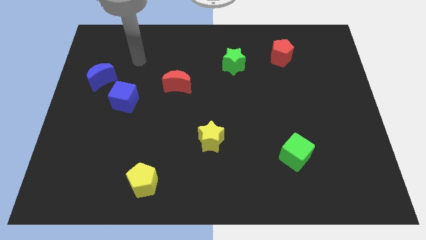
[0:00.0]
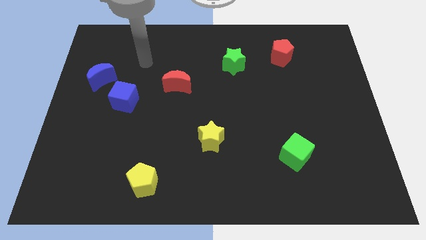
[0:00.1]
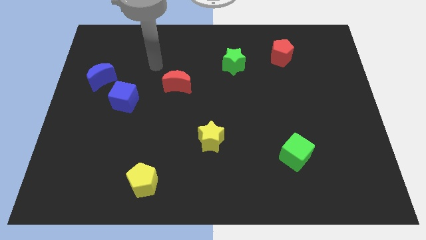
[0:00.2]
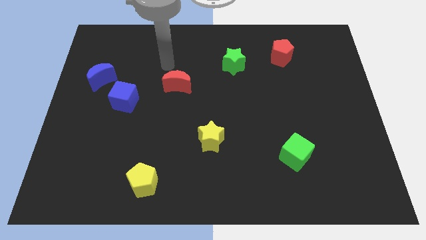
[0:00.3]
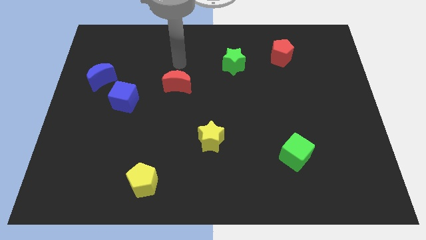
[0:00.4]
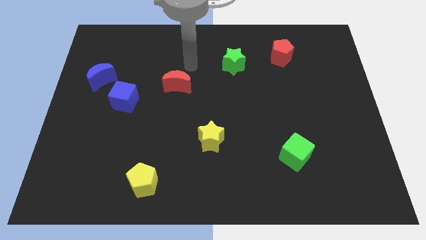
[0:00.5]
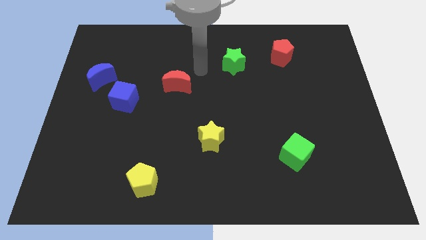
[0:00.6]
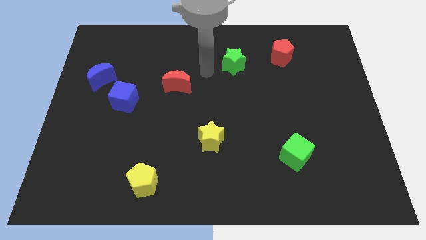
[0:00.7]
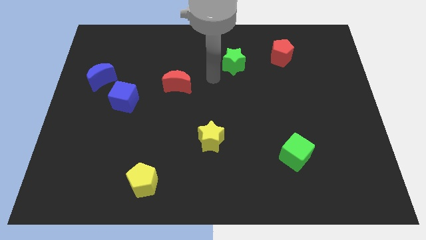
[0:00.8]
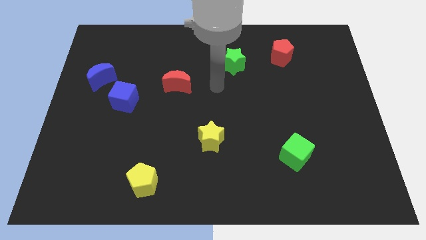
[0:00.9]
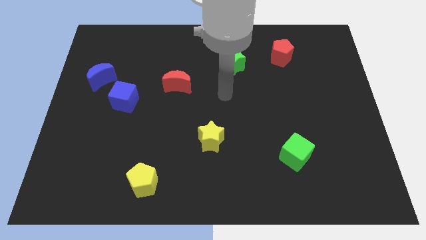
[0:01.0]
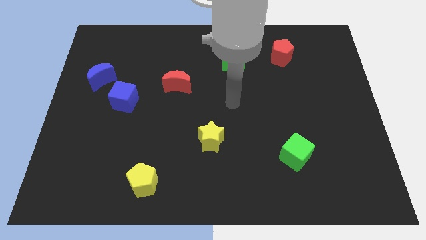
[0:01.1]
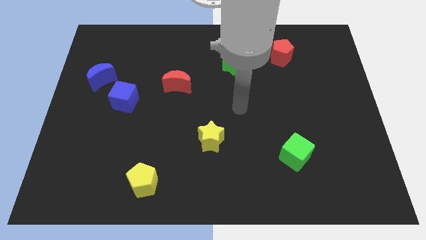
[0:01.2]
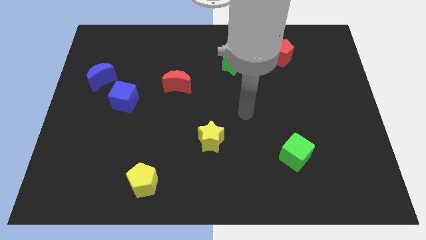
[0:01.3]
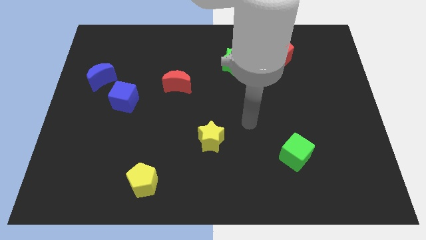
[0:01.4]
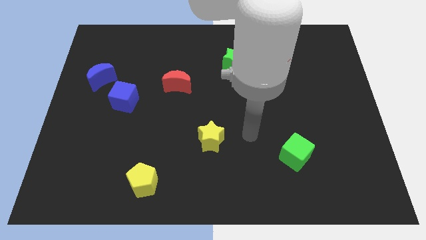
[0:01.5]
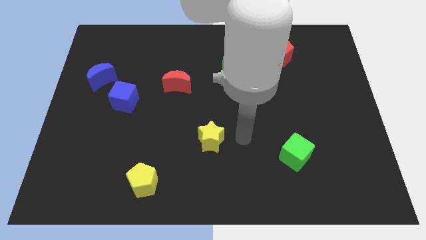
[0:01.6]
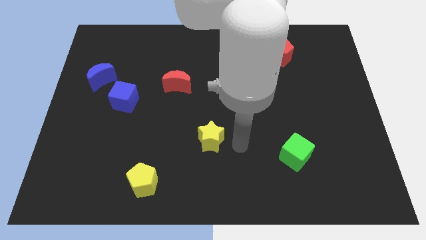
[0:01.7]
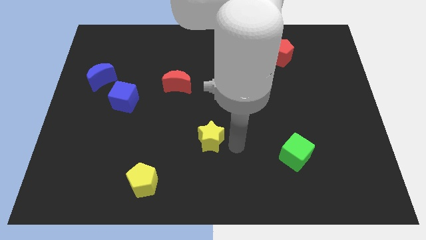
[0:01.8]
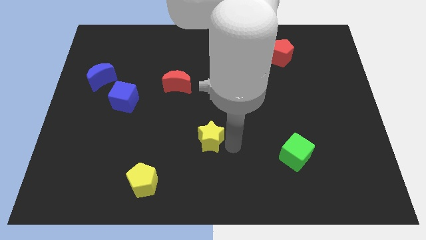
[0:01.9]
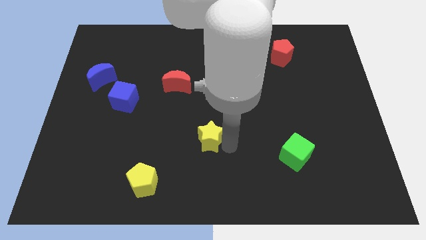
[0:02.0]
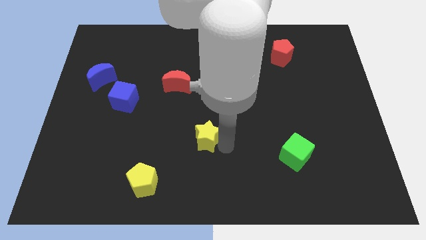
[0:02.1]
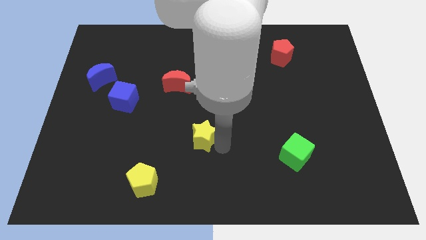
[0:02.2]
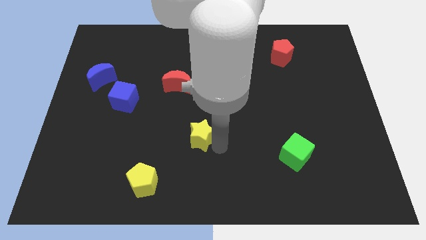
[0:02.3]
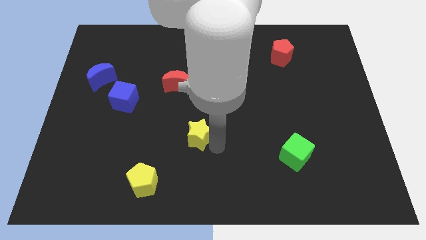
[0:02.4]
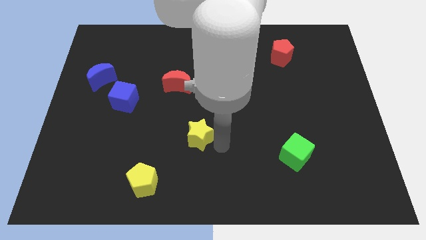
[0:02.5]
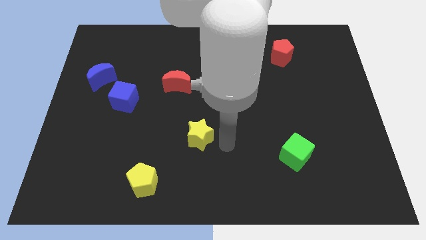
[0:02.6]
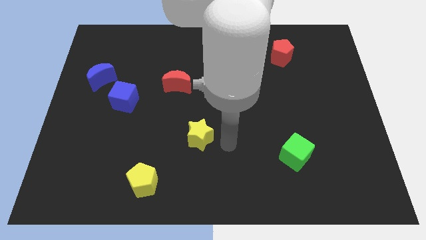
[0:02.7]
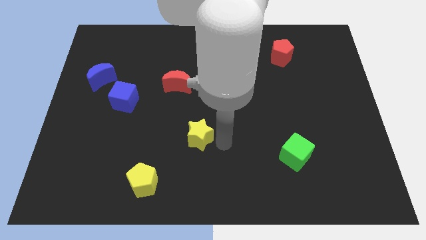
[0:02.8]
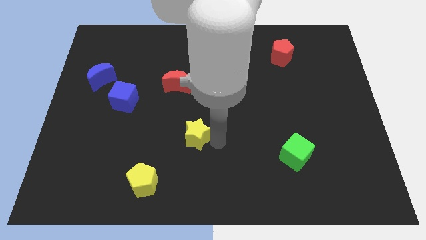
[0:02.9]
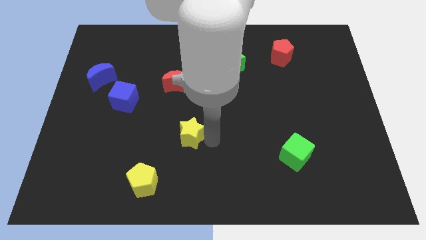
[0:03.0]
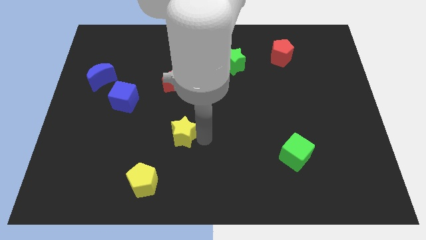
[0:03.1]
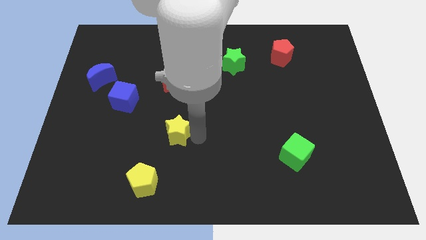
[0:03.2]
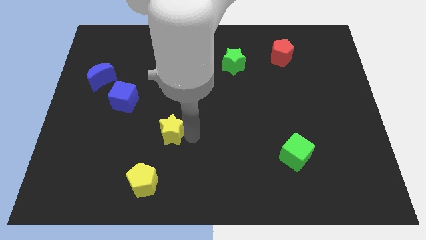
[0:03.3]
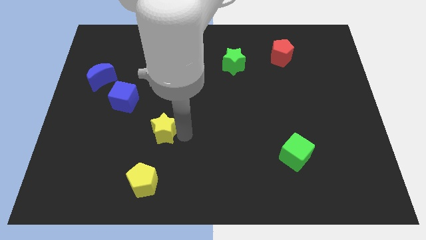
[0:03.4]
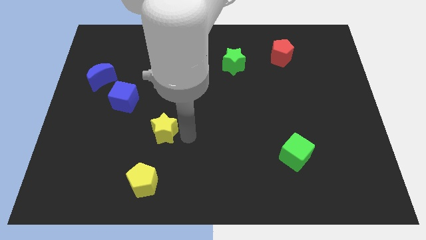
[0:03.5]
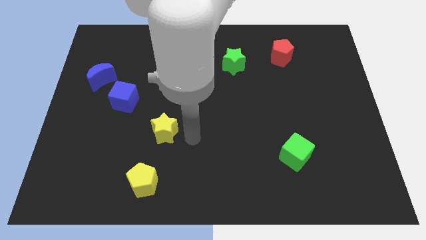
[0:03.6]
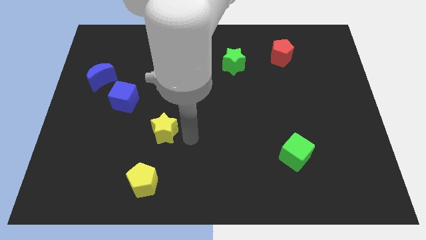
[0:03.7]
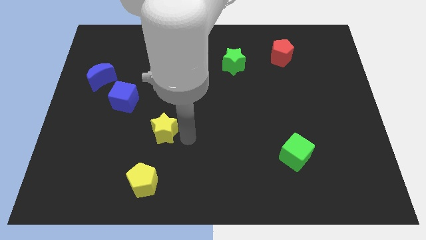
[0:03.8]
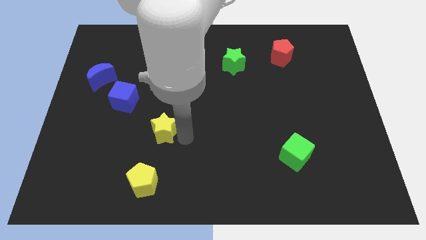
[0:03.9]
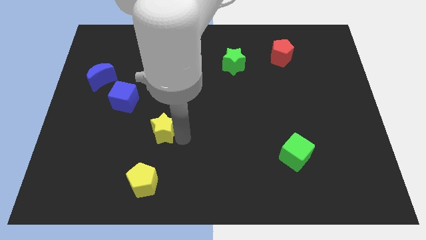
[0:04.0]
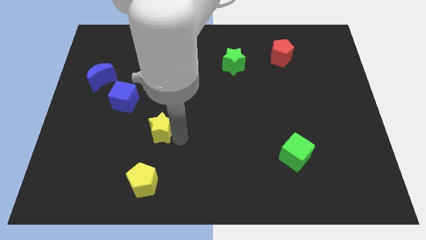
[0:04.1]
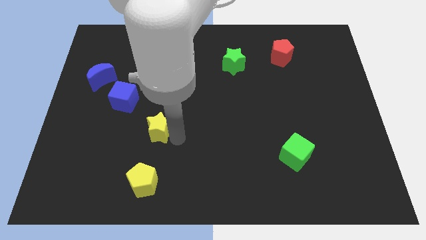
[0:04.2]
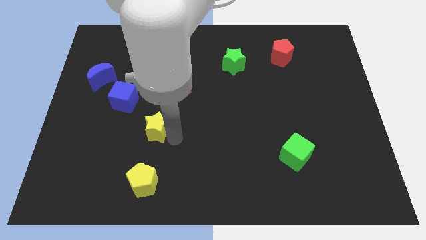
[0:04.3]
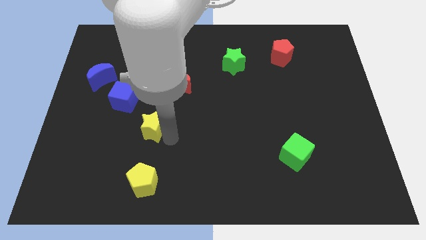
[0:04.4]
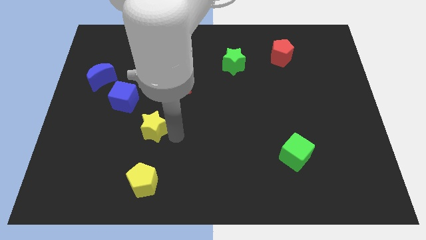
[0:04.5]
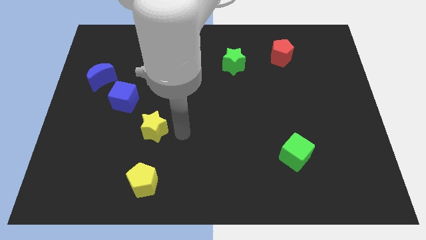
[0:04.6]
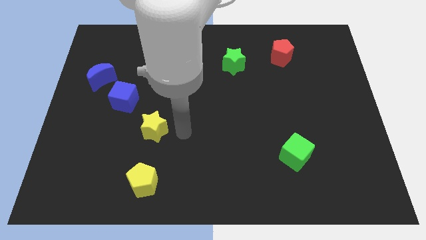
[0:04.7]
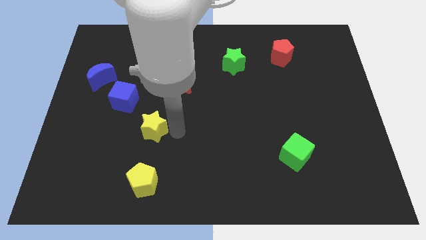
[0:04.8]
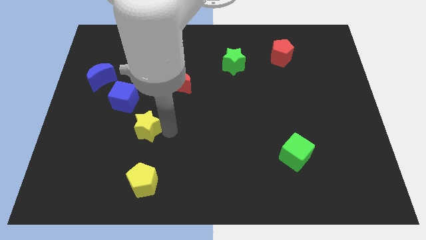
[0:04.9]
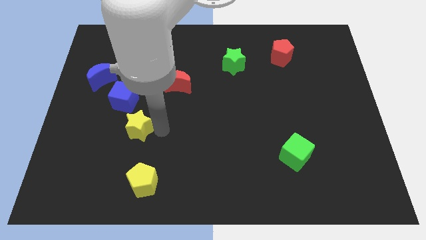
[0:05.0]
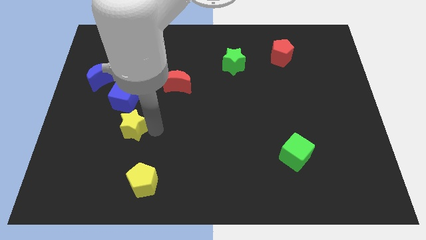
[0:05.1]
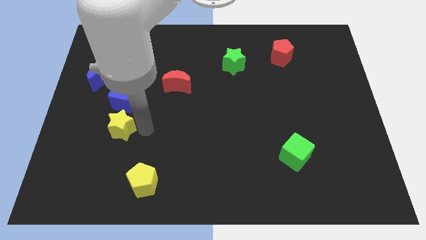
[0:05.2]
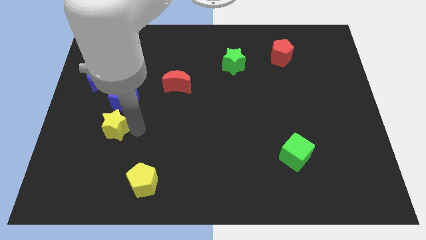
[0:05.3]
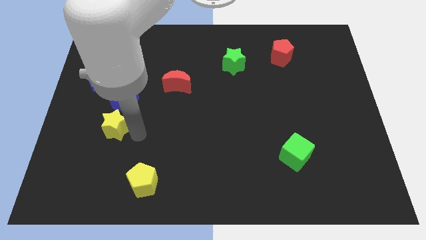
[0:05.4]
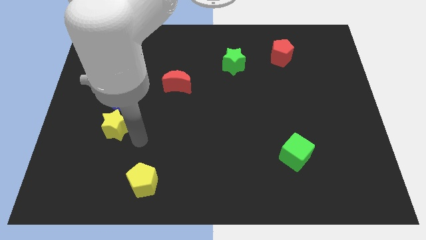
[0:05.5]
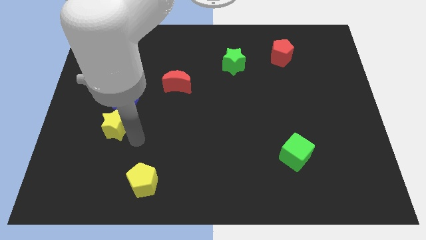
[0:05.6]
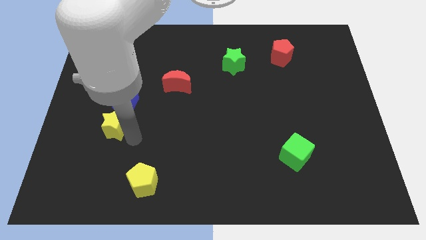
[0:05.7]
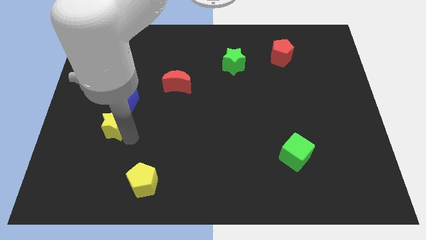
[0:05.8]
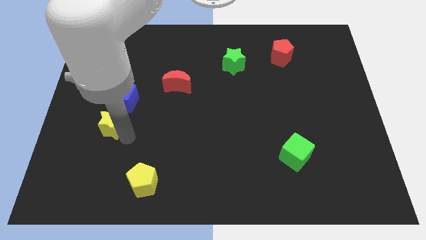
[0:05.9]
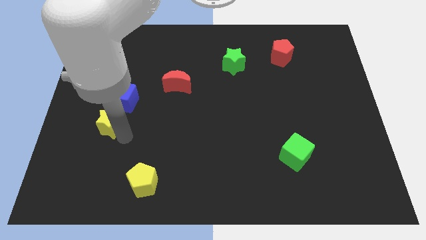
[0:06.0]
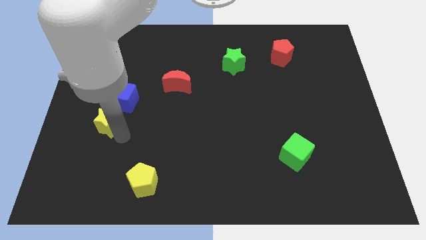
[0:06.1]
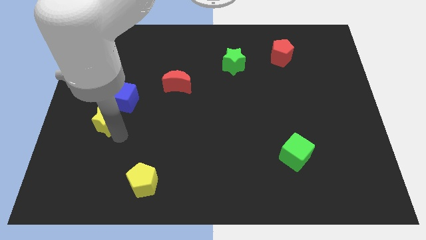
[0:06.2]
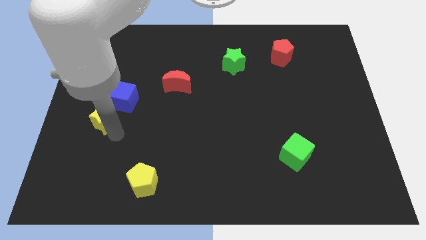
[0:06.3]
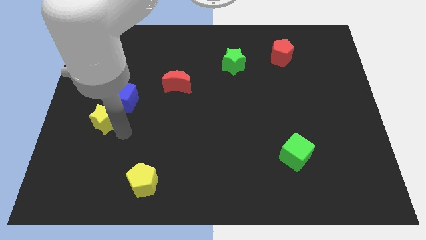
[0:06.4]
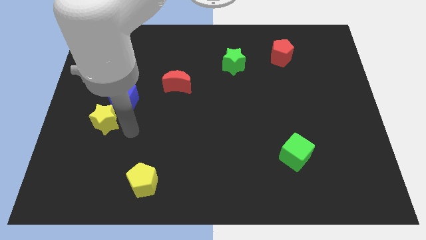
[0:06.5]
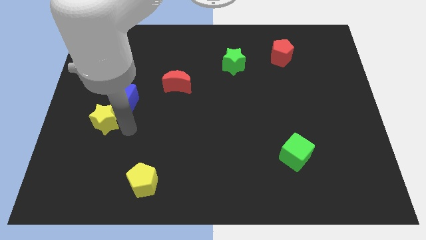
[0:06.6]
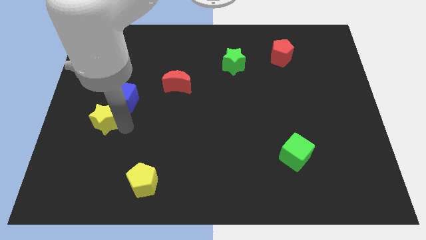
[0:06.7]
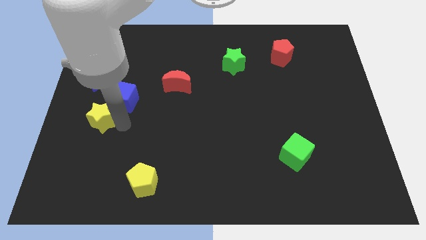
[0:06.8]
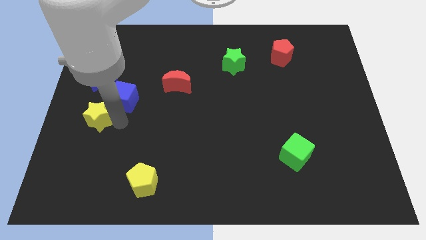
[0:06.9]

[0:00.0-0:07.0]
put the yellow star to the center left

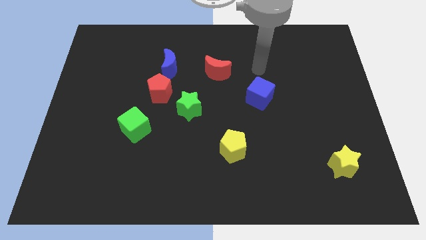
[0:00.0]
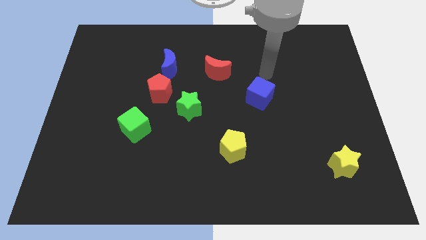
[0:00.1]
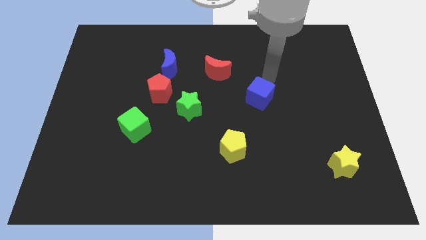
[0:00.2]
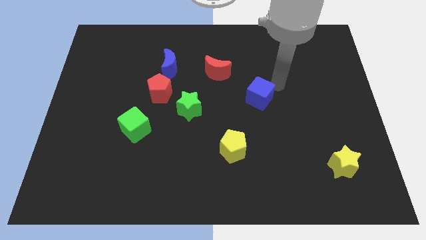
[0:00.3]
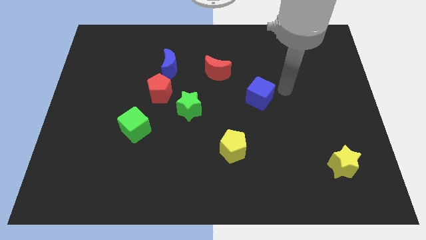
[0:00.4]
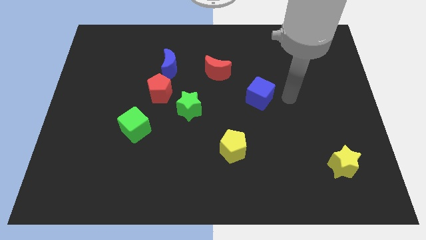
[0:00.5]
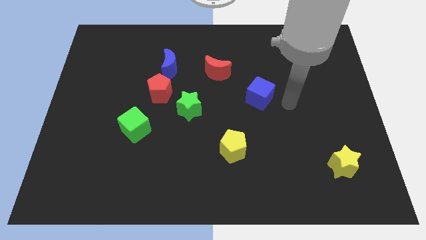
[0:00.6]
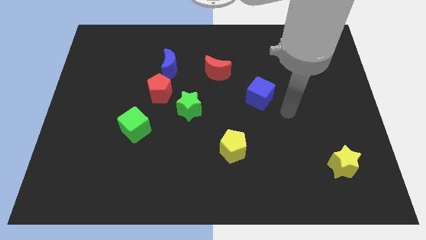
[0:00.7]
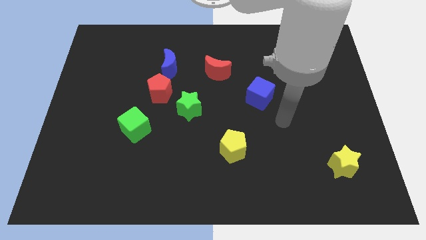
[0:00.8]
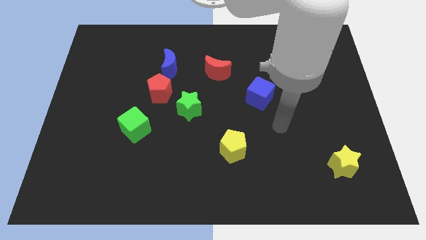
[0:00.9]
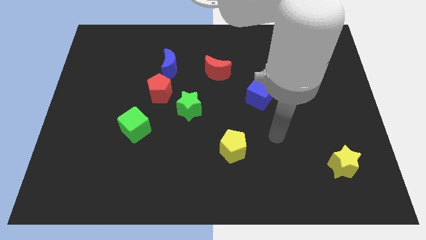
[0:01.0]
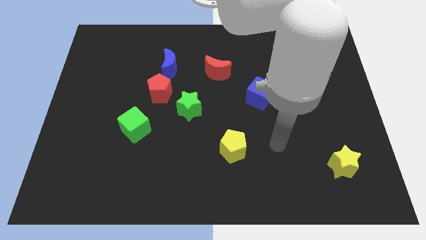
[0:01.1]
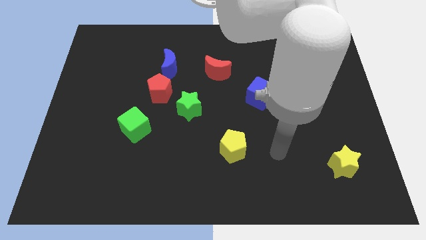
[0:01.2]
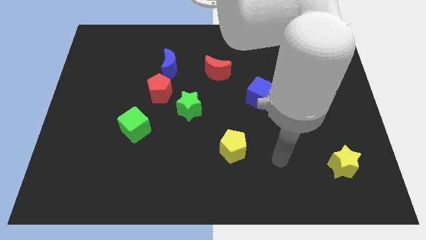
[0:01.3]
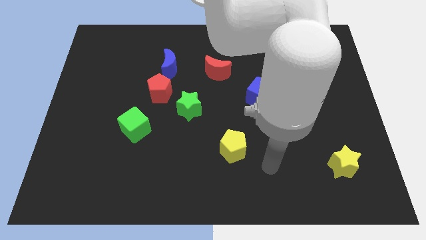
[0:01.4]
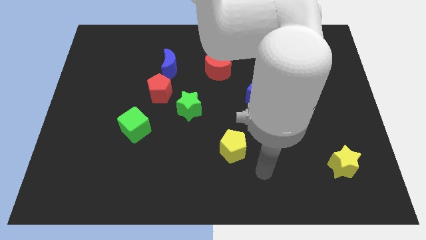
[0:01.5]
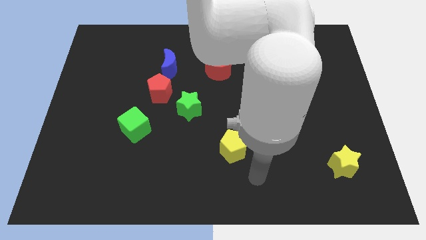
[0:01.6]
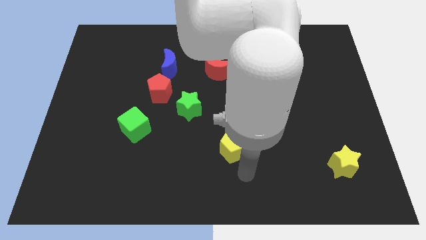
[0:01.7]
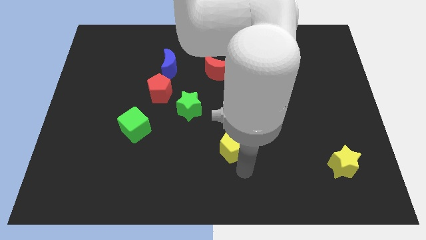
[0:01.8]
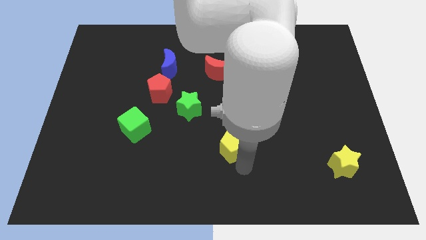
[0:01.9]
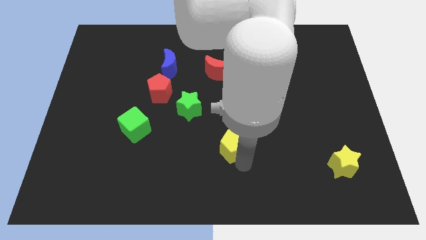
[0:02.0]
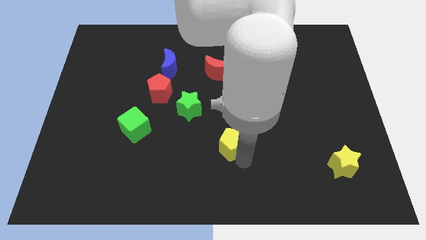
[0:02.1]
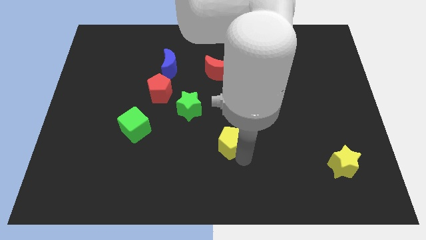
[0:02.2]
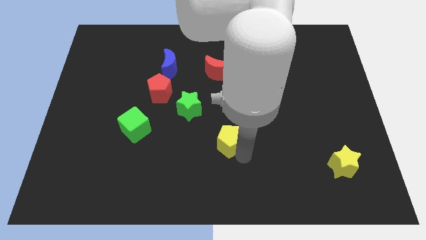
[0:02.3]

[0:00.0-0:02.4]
slide the yellow pentagon to the middle of the board
